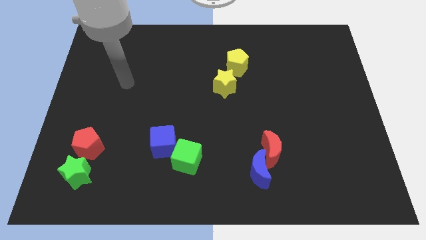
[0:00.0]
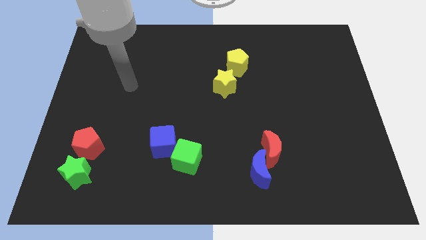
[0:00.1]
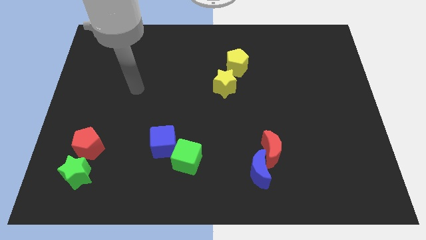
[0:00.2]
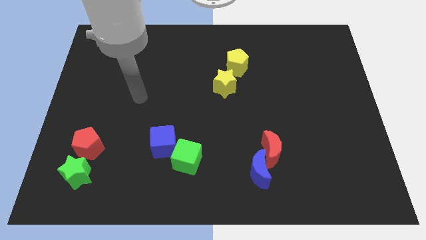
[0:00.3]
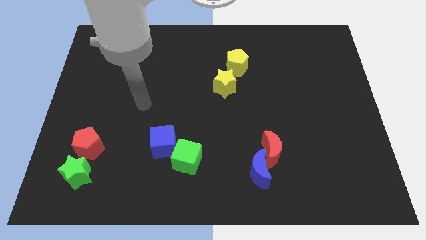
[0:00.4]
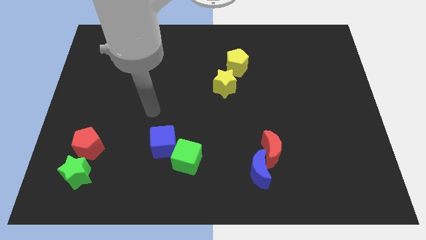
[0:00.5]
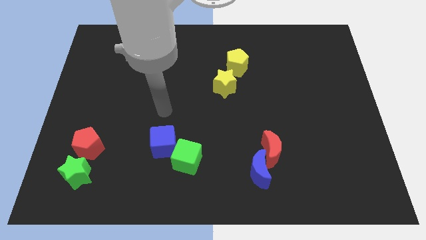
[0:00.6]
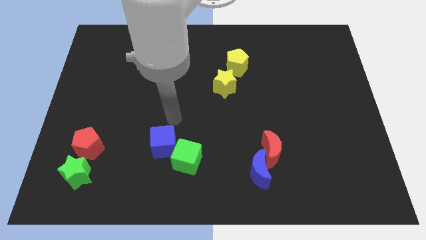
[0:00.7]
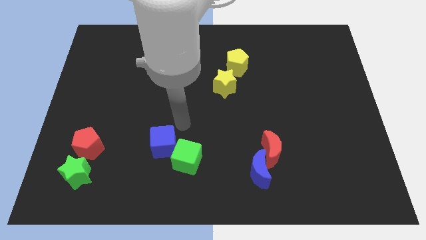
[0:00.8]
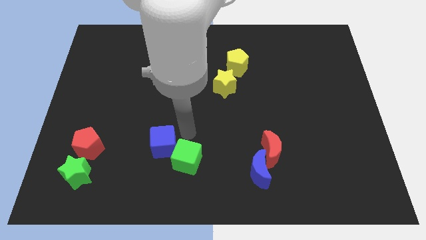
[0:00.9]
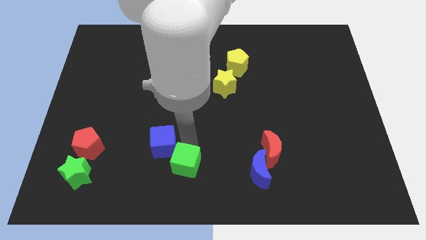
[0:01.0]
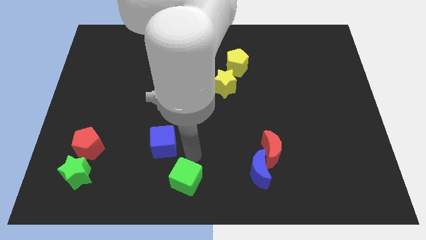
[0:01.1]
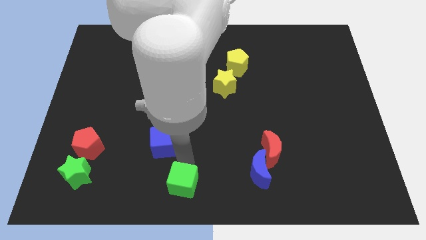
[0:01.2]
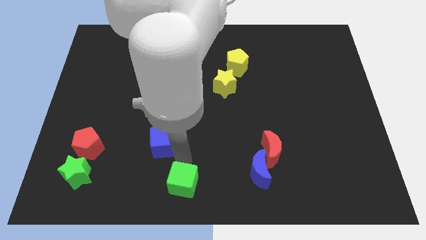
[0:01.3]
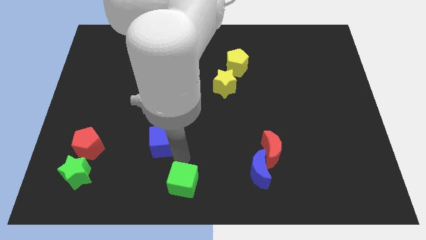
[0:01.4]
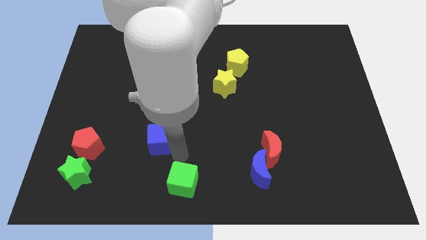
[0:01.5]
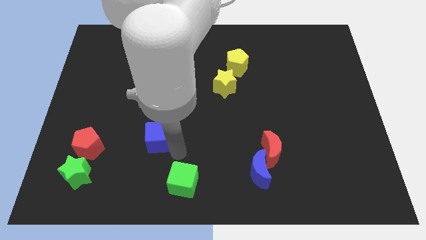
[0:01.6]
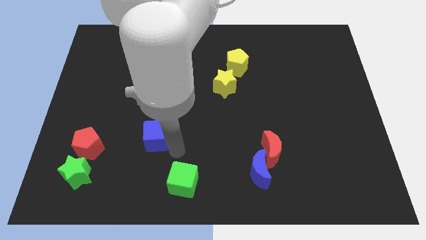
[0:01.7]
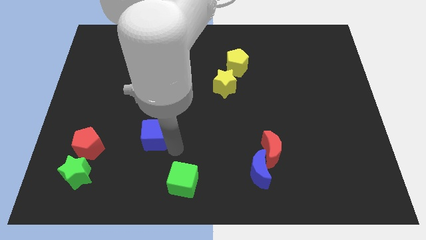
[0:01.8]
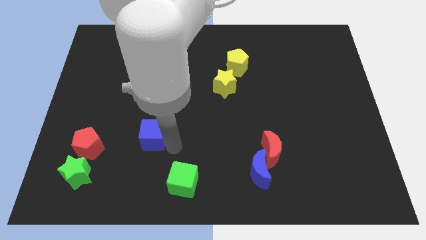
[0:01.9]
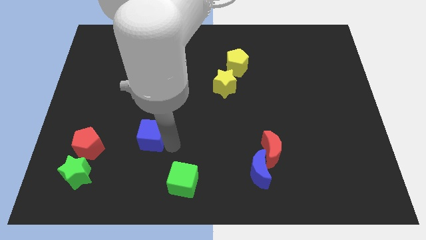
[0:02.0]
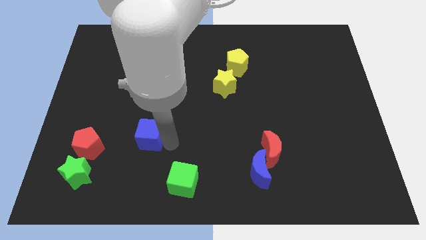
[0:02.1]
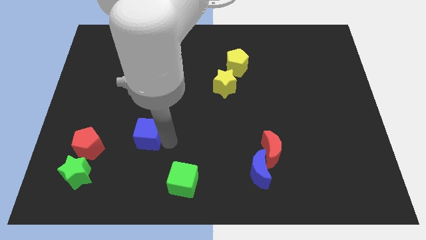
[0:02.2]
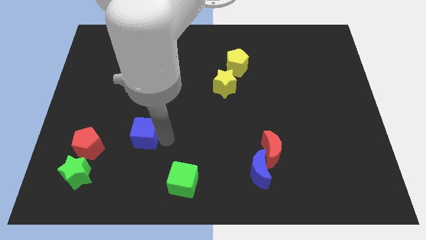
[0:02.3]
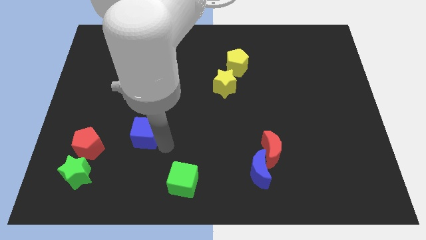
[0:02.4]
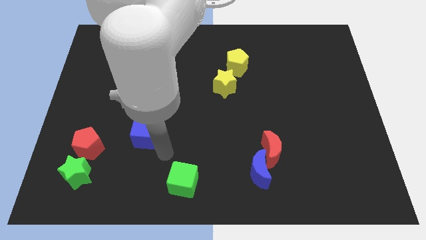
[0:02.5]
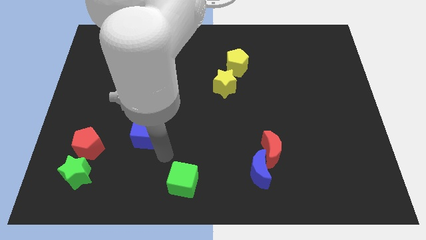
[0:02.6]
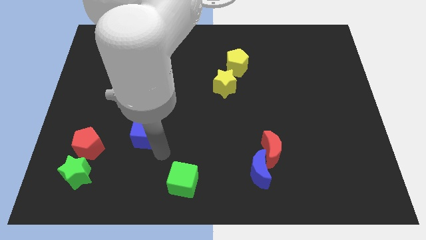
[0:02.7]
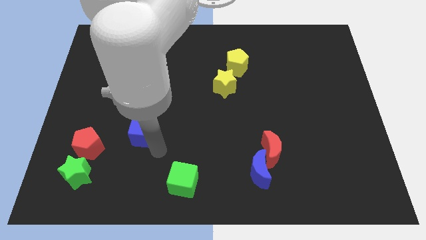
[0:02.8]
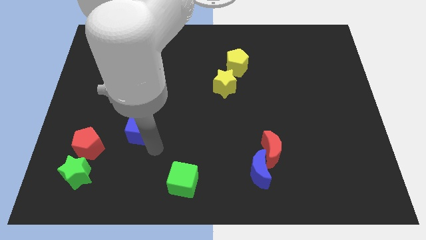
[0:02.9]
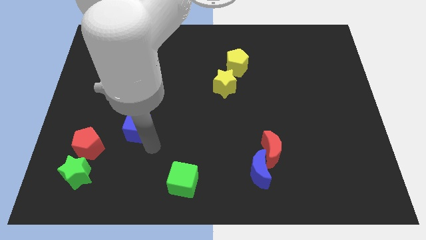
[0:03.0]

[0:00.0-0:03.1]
slightly slide the blue cube diagonally up and to the left

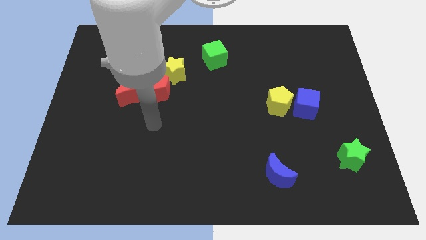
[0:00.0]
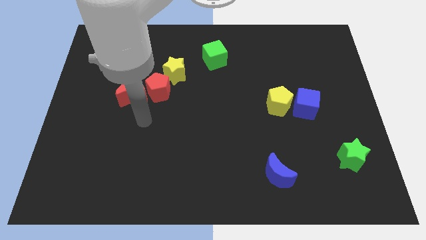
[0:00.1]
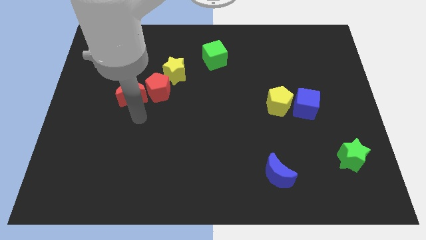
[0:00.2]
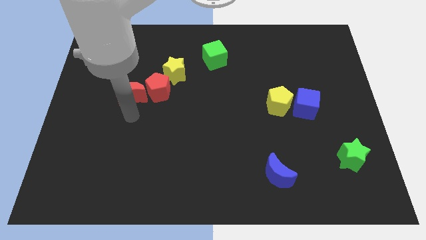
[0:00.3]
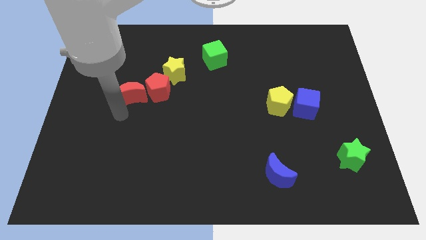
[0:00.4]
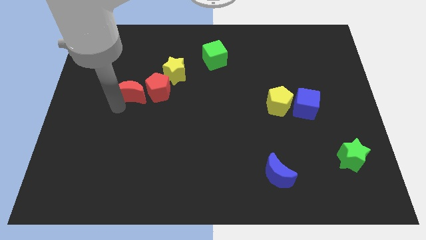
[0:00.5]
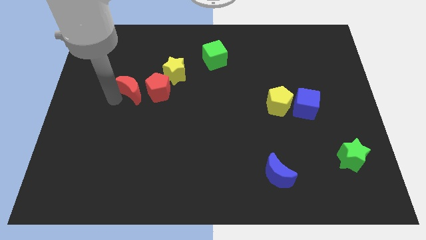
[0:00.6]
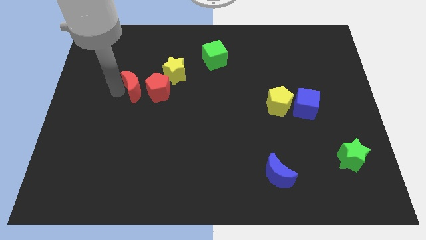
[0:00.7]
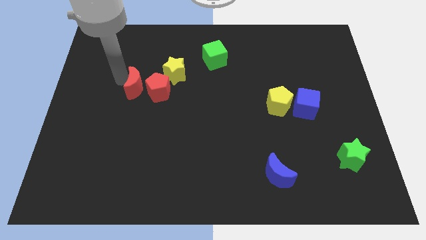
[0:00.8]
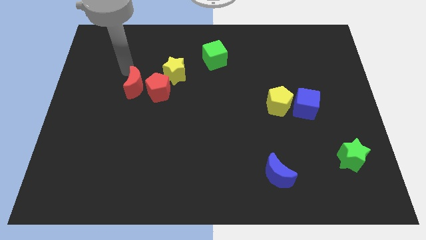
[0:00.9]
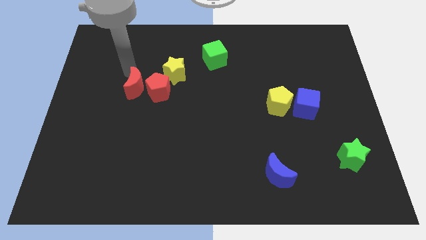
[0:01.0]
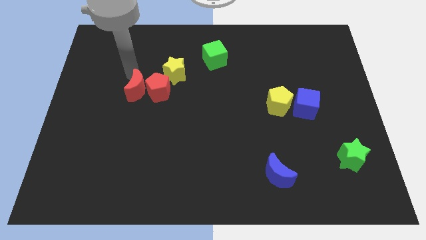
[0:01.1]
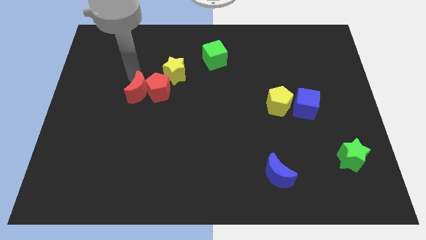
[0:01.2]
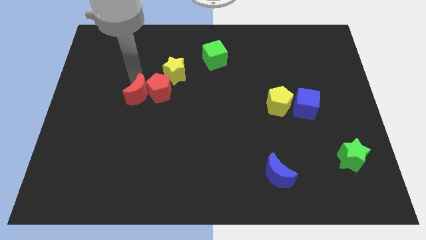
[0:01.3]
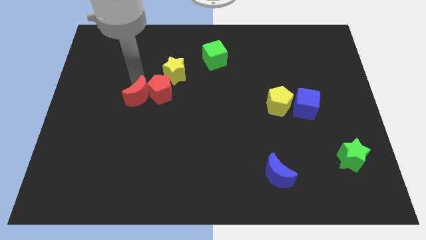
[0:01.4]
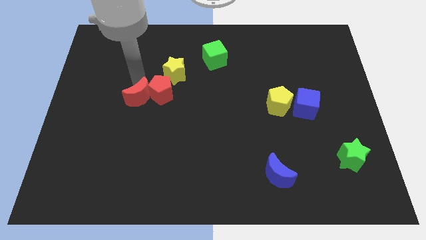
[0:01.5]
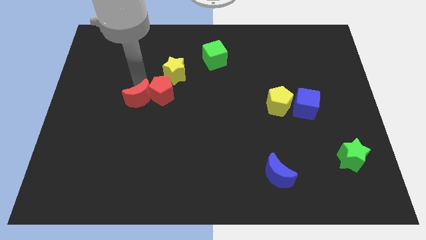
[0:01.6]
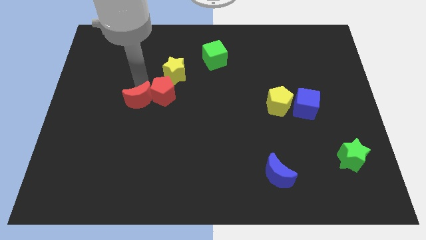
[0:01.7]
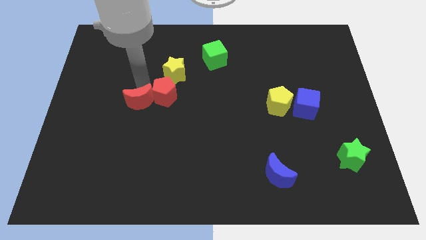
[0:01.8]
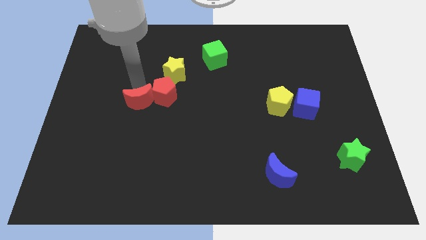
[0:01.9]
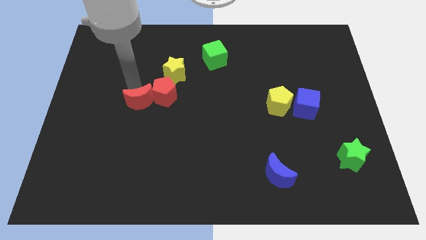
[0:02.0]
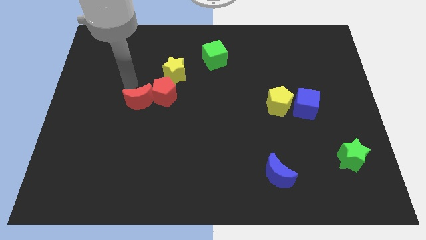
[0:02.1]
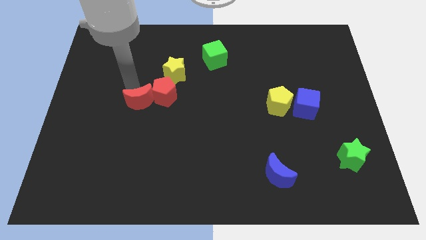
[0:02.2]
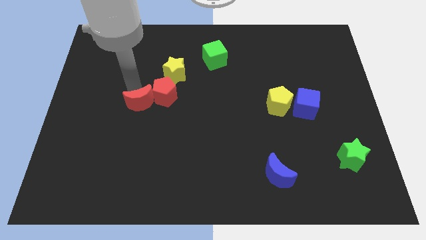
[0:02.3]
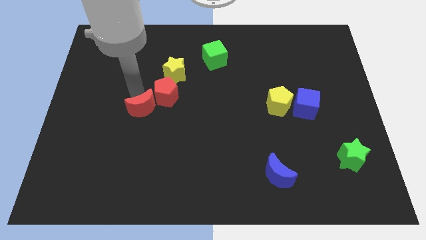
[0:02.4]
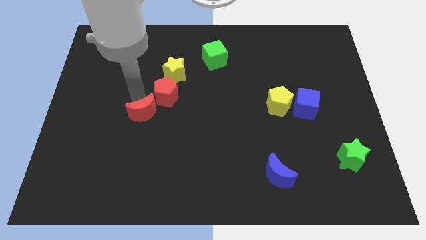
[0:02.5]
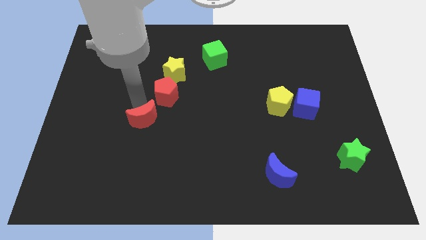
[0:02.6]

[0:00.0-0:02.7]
slightly push the red moon down and then right

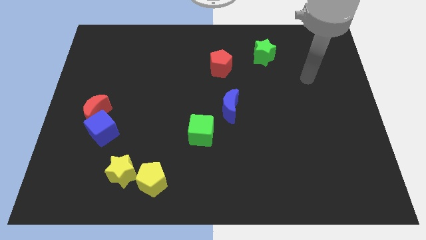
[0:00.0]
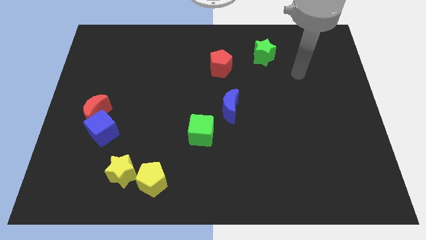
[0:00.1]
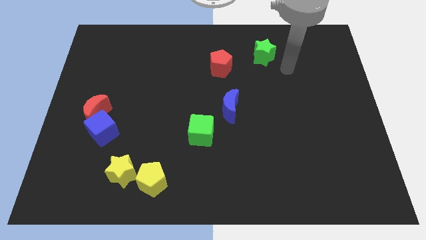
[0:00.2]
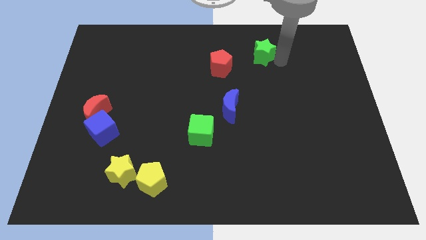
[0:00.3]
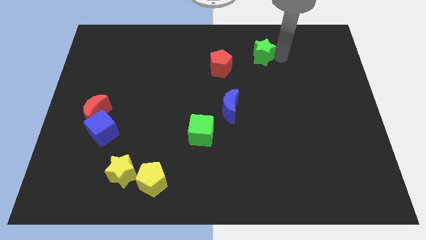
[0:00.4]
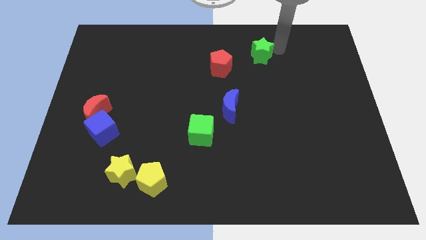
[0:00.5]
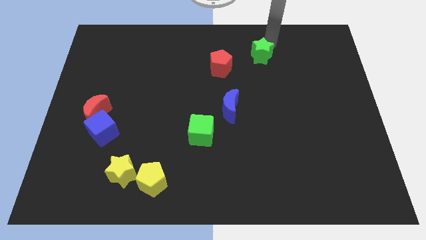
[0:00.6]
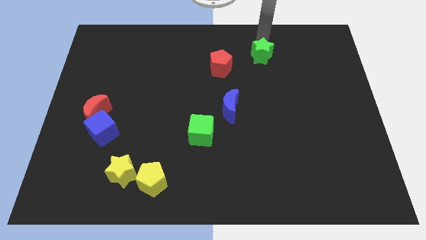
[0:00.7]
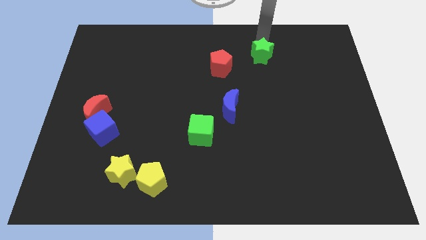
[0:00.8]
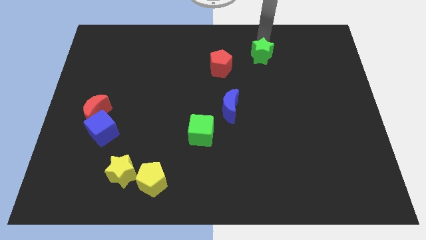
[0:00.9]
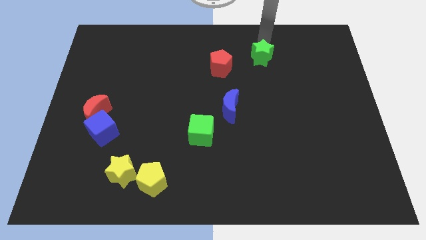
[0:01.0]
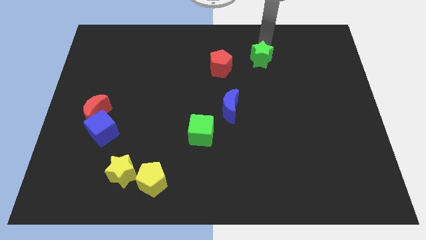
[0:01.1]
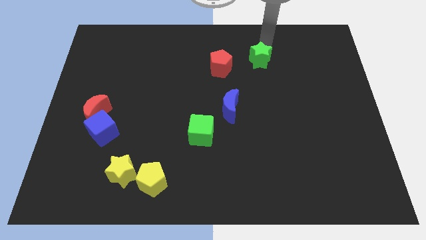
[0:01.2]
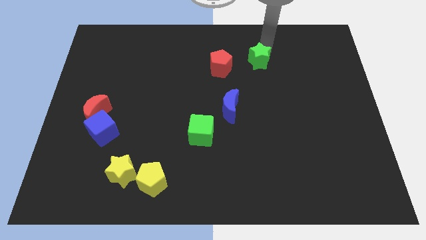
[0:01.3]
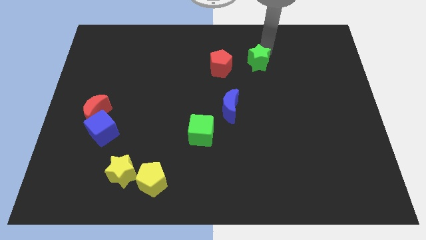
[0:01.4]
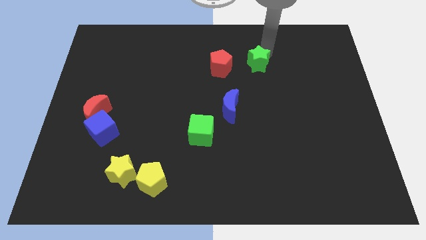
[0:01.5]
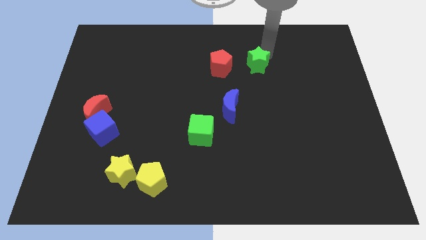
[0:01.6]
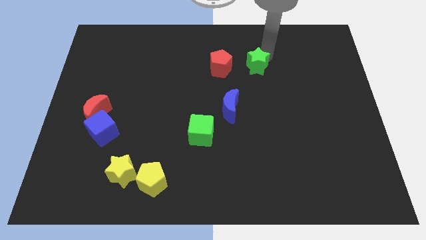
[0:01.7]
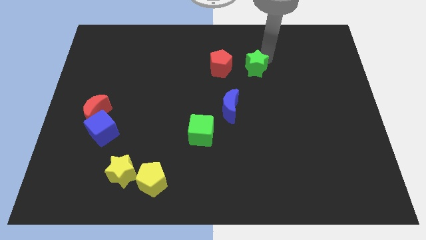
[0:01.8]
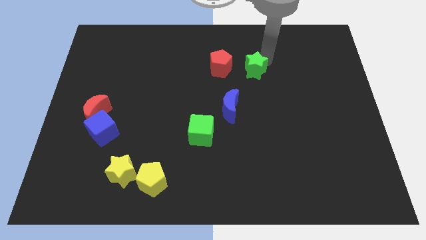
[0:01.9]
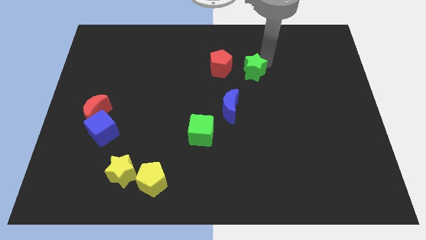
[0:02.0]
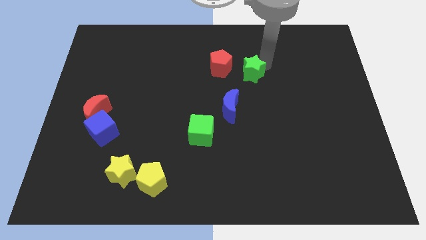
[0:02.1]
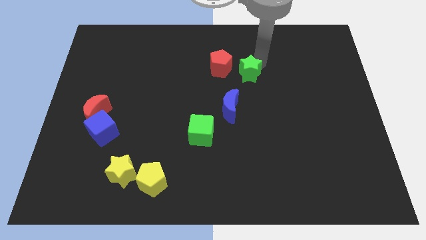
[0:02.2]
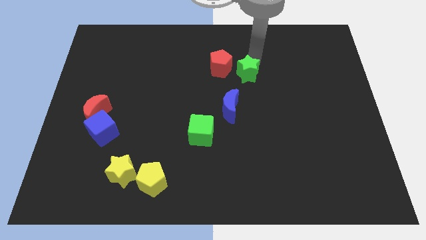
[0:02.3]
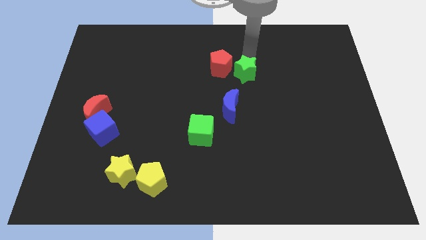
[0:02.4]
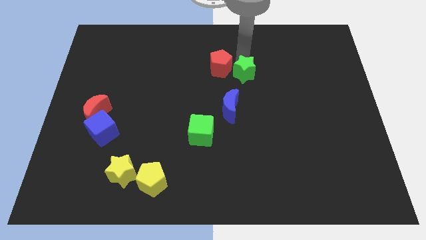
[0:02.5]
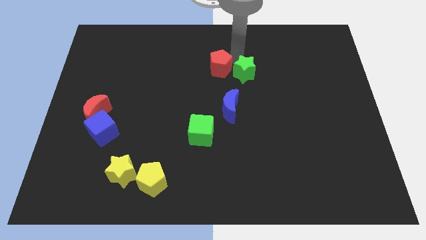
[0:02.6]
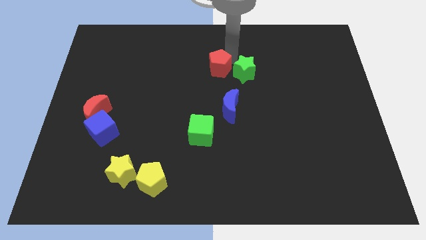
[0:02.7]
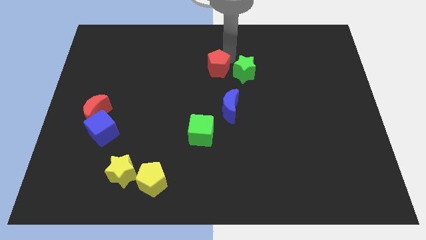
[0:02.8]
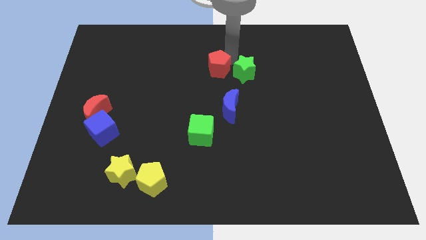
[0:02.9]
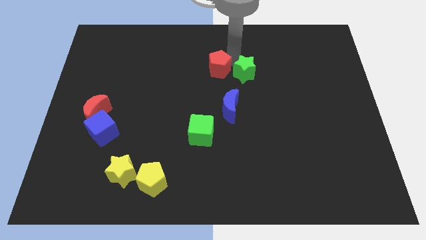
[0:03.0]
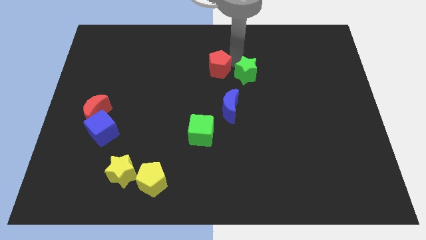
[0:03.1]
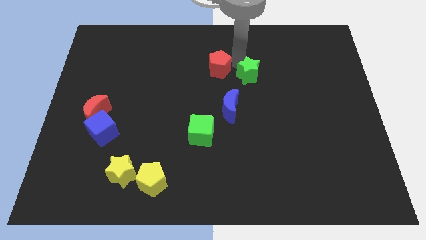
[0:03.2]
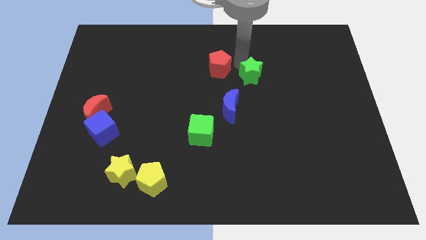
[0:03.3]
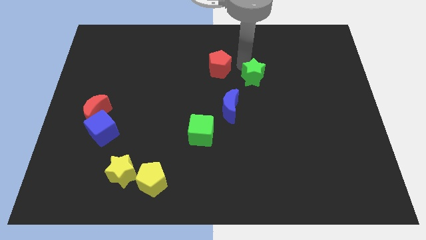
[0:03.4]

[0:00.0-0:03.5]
move the green star down slightly
